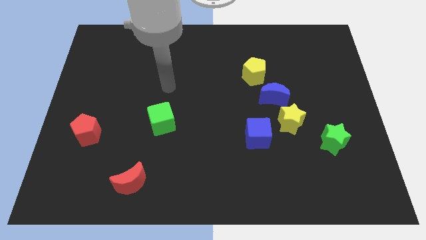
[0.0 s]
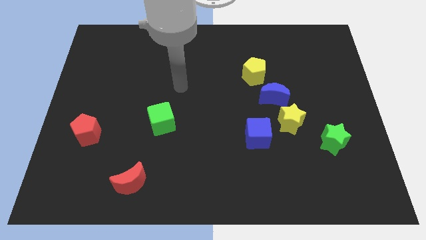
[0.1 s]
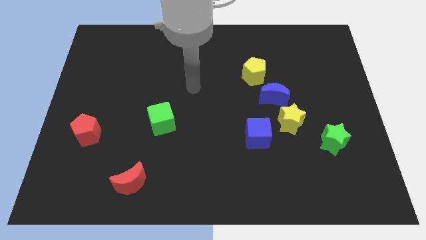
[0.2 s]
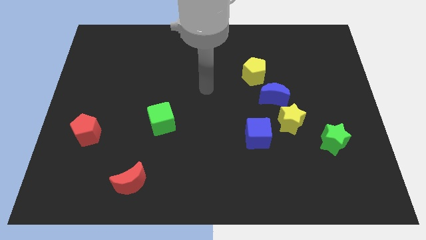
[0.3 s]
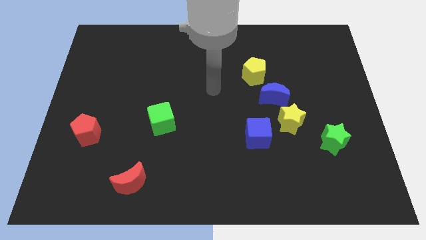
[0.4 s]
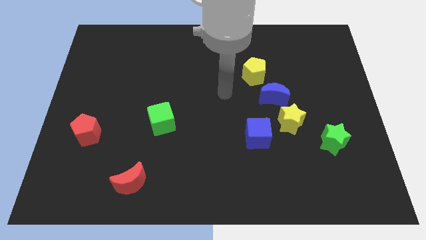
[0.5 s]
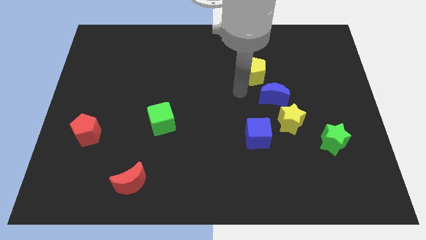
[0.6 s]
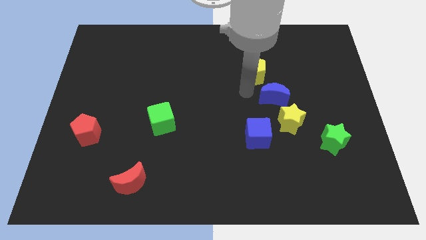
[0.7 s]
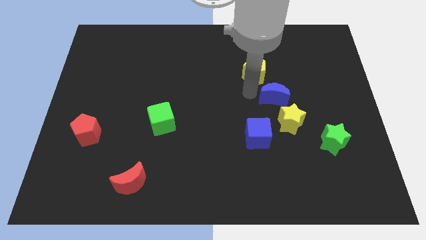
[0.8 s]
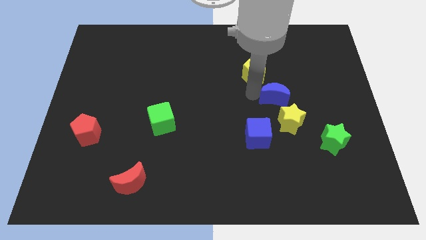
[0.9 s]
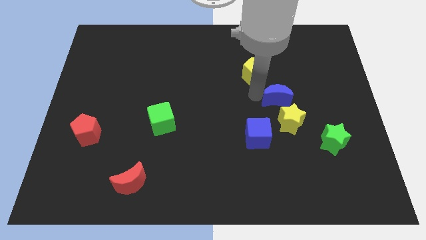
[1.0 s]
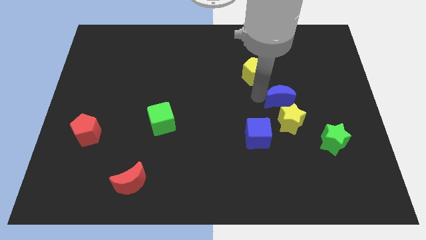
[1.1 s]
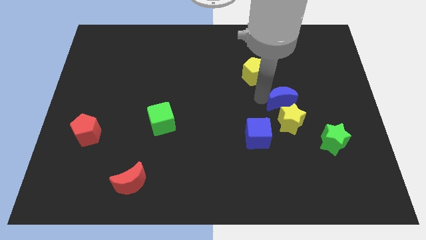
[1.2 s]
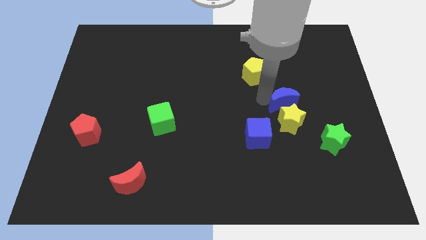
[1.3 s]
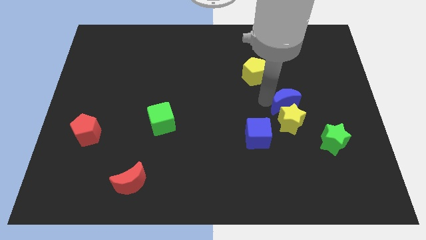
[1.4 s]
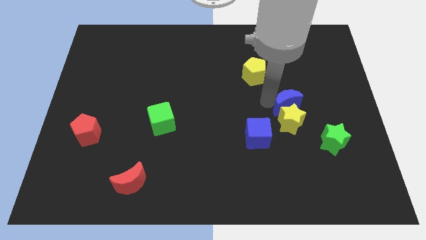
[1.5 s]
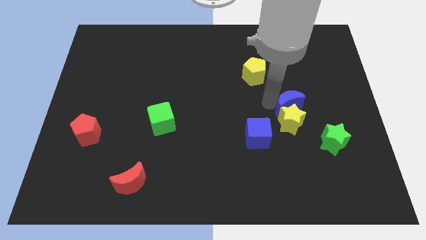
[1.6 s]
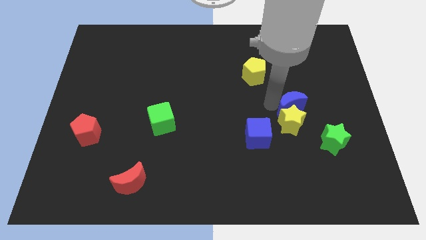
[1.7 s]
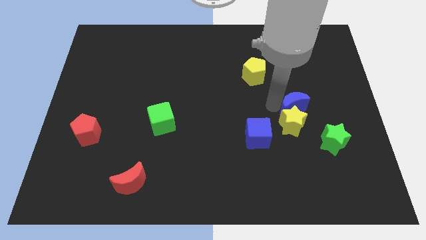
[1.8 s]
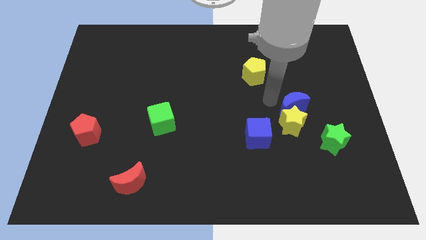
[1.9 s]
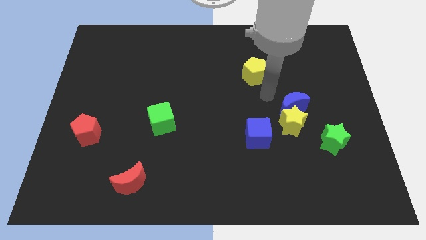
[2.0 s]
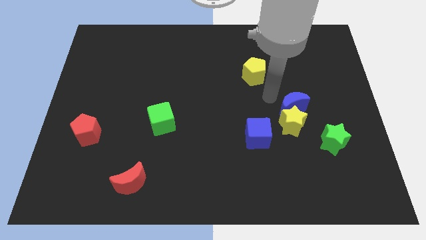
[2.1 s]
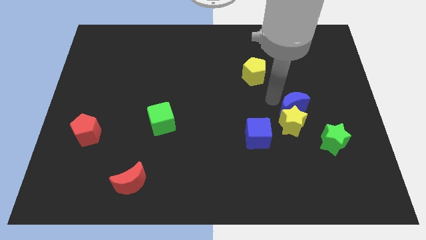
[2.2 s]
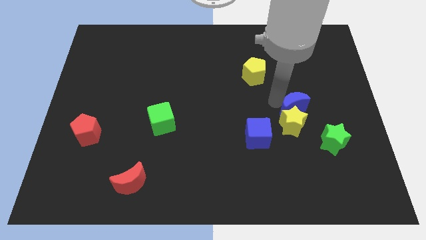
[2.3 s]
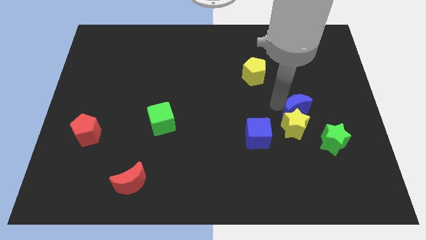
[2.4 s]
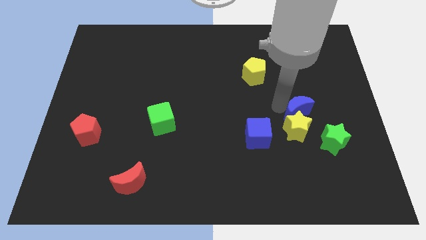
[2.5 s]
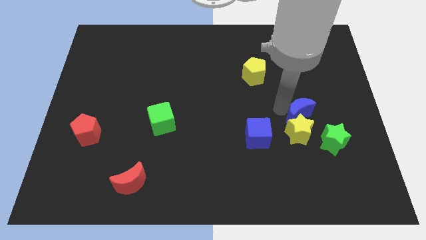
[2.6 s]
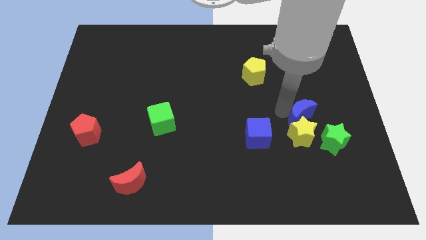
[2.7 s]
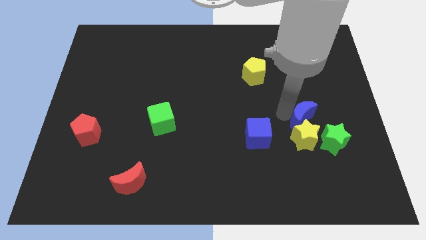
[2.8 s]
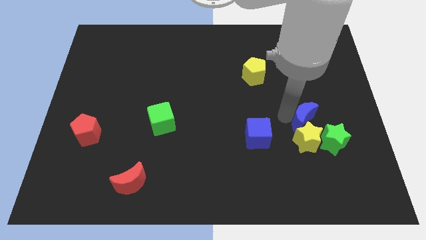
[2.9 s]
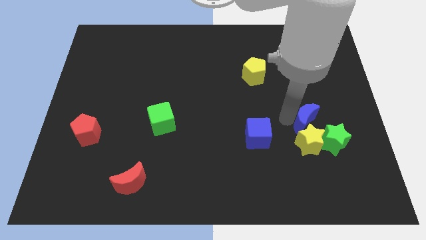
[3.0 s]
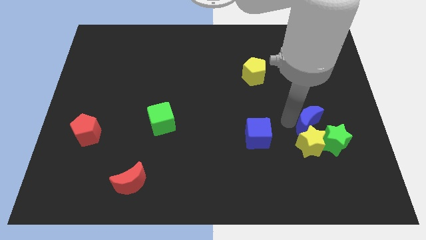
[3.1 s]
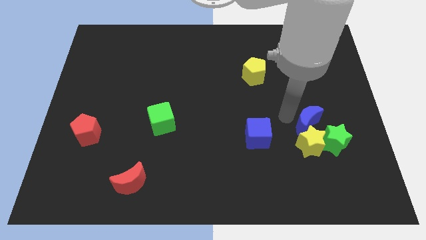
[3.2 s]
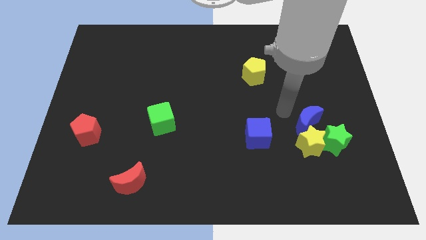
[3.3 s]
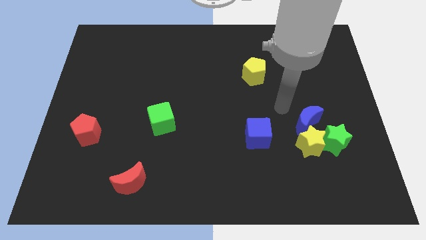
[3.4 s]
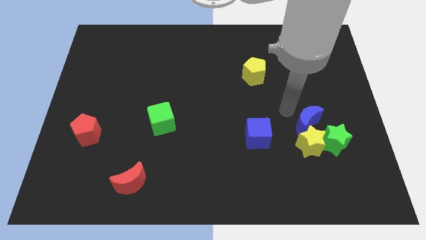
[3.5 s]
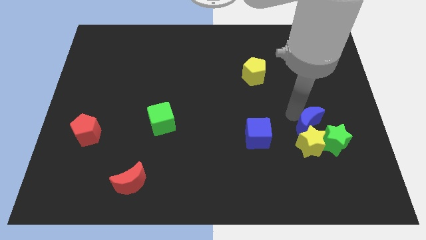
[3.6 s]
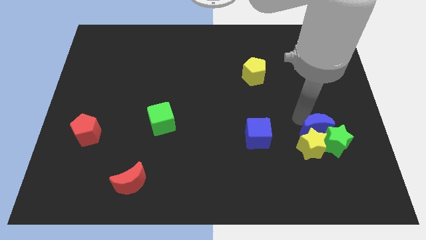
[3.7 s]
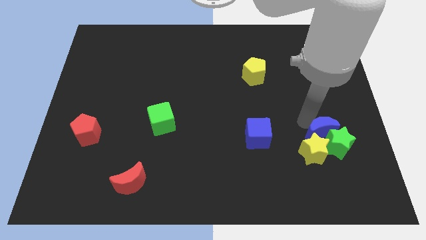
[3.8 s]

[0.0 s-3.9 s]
move the blue moon away from the yellow star and yellow pentagon

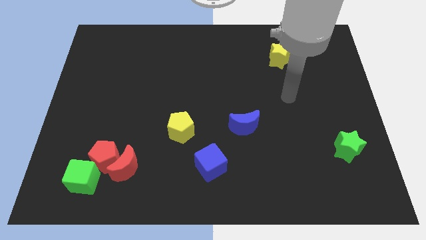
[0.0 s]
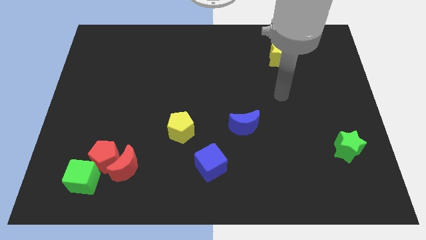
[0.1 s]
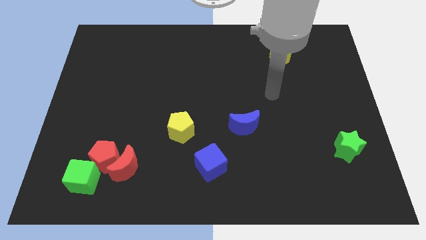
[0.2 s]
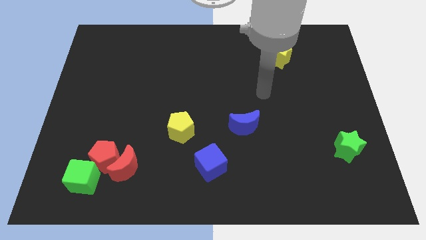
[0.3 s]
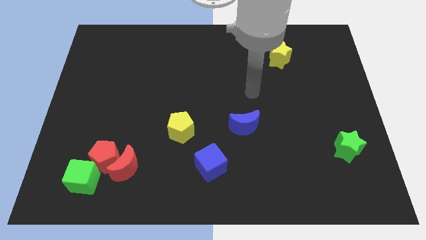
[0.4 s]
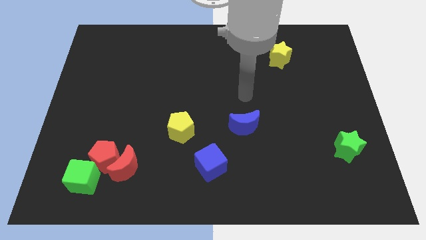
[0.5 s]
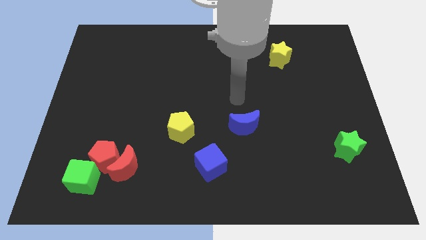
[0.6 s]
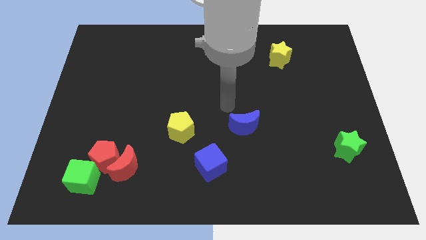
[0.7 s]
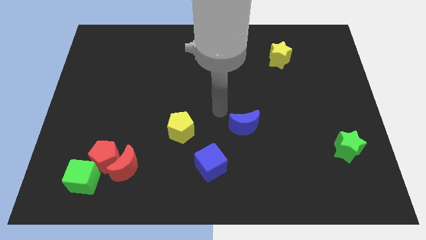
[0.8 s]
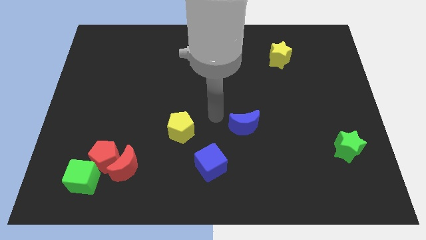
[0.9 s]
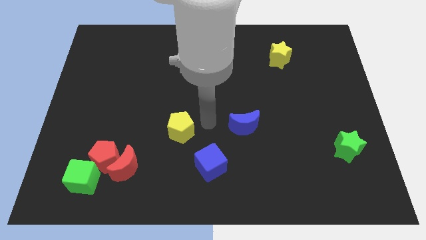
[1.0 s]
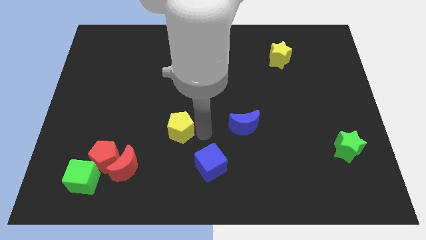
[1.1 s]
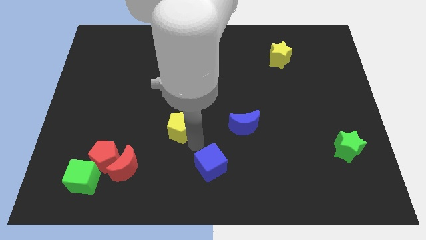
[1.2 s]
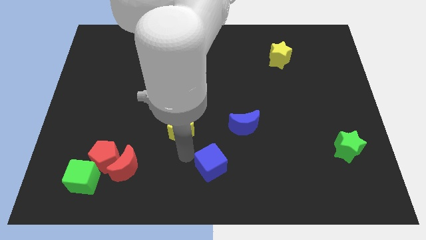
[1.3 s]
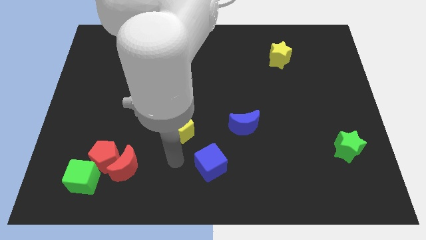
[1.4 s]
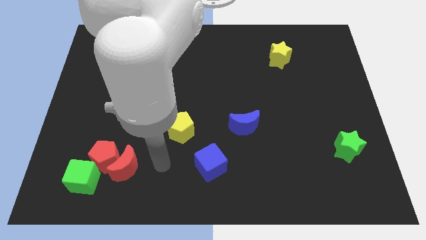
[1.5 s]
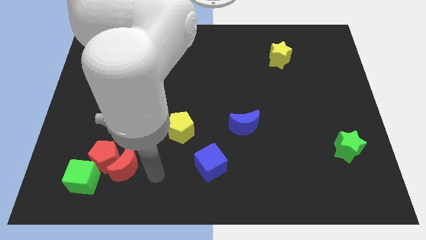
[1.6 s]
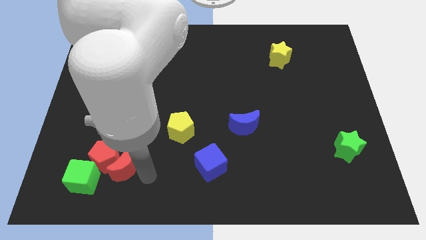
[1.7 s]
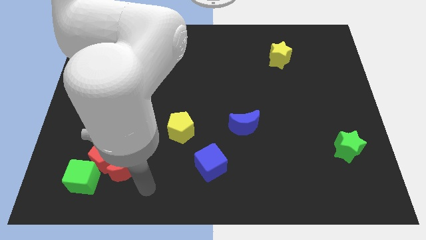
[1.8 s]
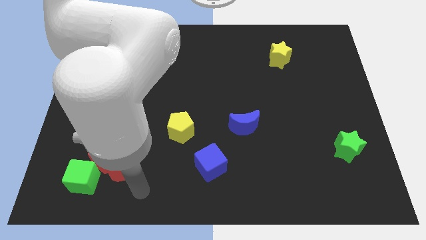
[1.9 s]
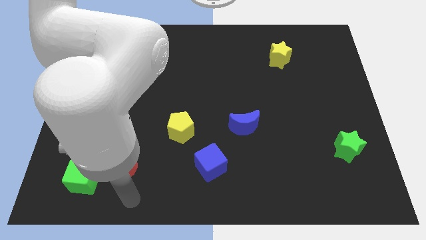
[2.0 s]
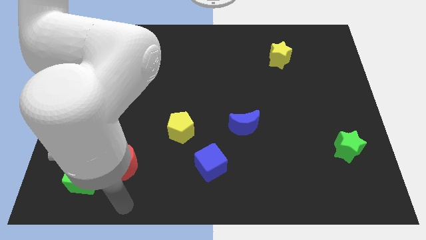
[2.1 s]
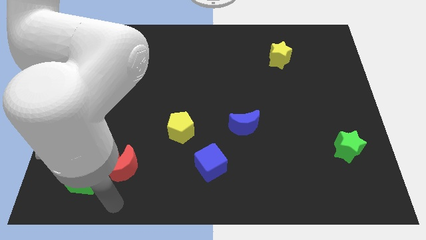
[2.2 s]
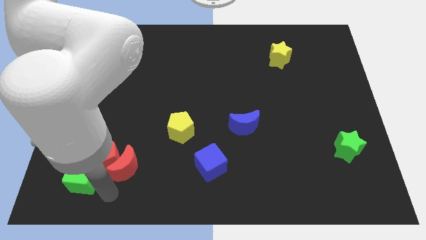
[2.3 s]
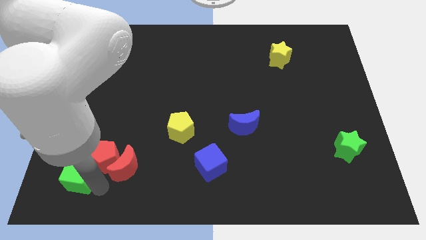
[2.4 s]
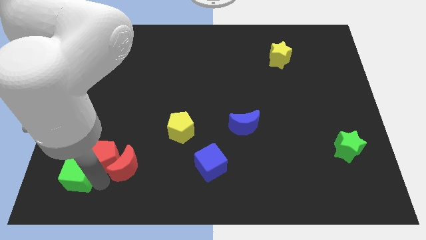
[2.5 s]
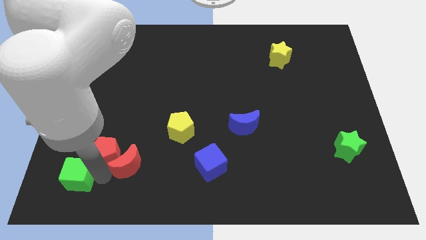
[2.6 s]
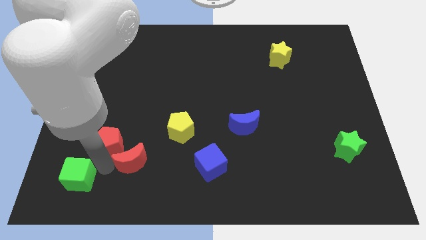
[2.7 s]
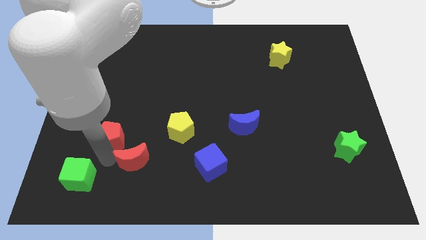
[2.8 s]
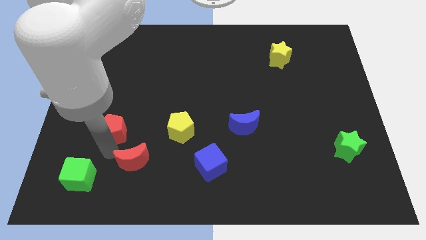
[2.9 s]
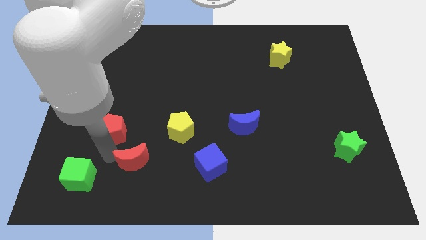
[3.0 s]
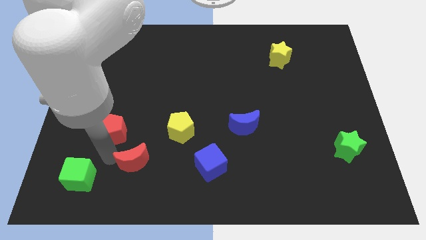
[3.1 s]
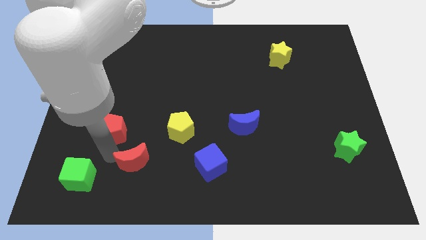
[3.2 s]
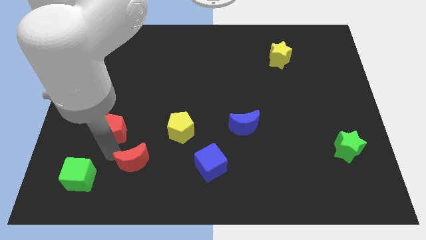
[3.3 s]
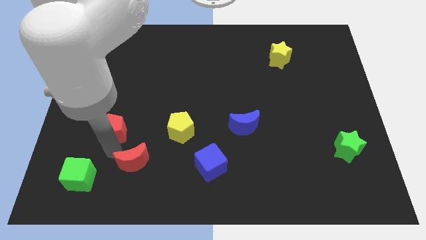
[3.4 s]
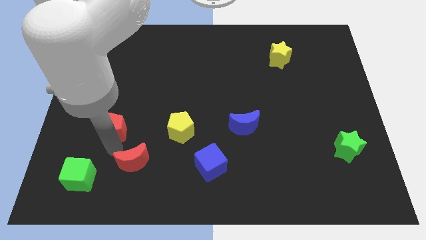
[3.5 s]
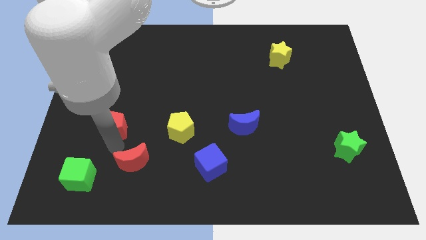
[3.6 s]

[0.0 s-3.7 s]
move the red pentagon away from the red moon and green cube

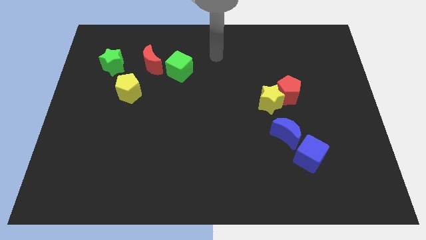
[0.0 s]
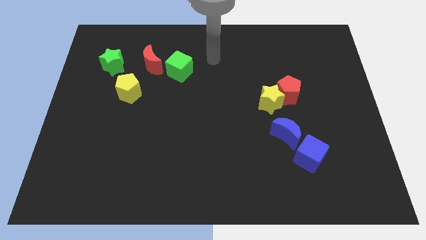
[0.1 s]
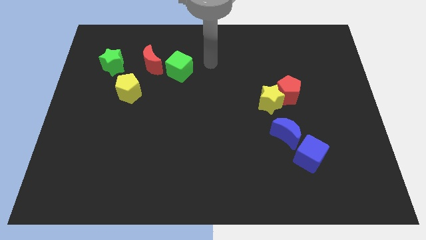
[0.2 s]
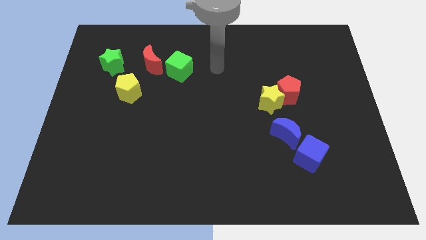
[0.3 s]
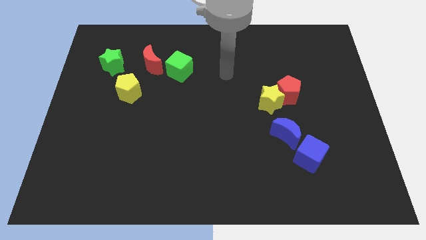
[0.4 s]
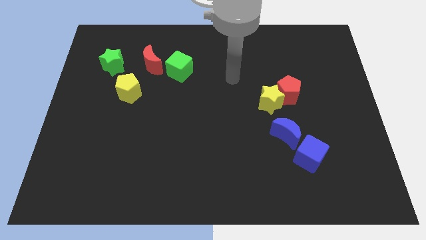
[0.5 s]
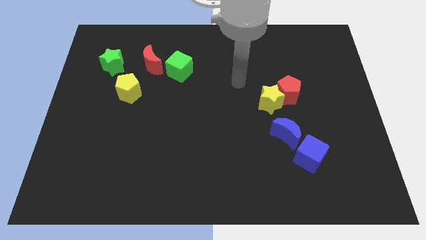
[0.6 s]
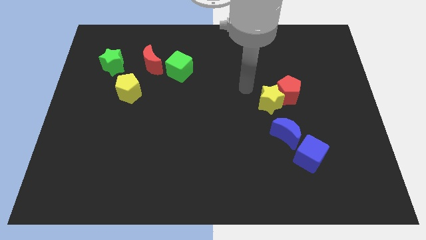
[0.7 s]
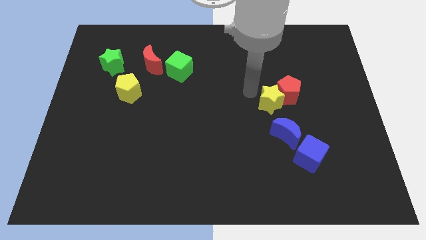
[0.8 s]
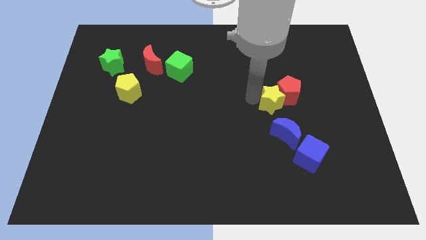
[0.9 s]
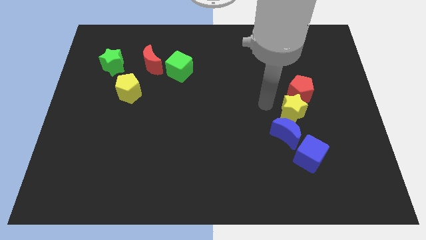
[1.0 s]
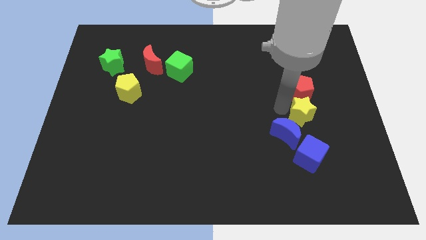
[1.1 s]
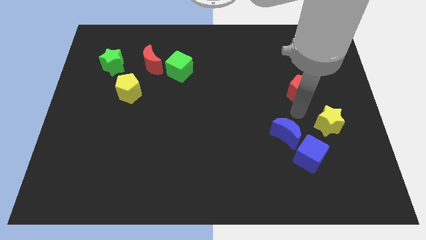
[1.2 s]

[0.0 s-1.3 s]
move the red pentagon away from the yellow star

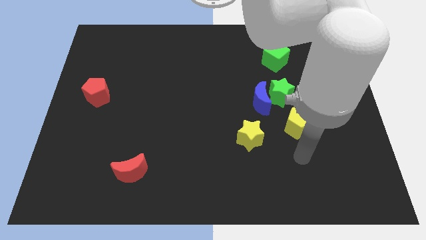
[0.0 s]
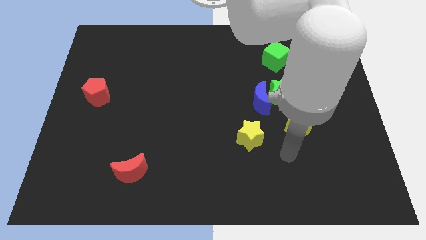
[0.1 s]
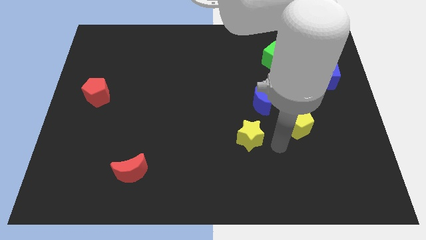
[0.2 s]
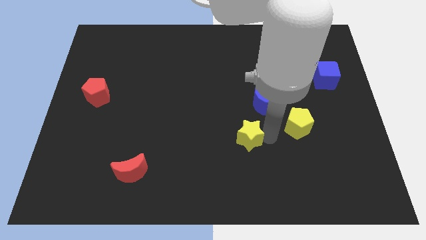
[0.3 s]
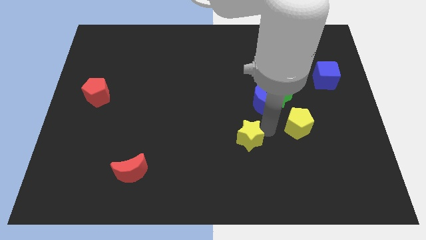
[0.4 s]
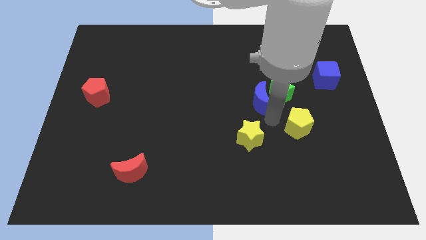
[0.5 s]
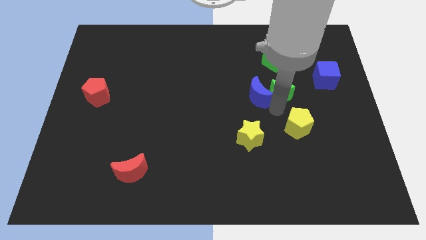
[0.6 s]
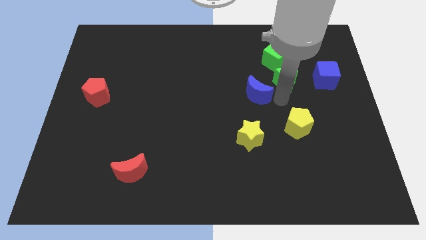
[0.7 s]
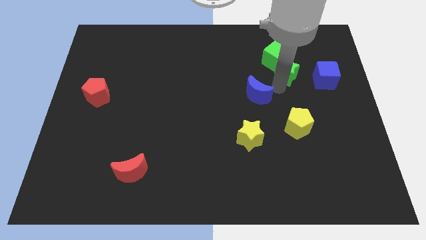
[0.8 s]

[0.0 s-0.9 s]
separate the blue moon from the green star
